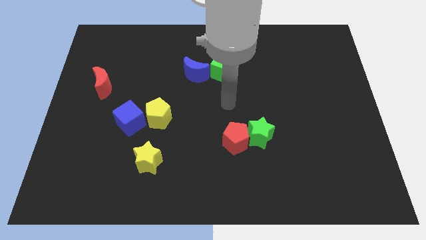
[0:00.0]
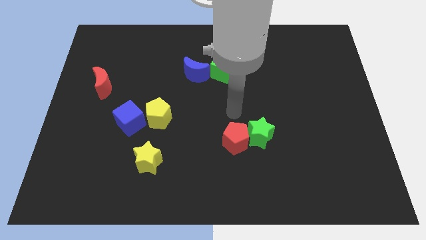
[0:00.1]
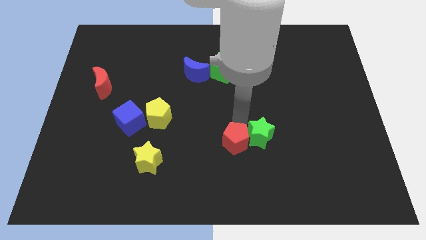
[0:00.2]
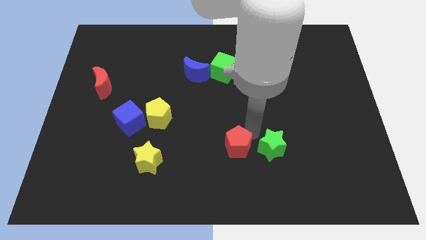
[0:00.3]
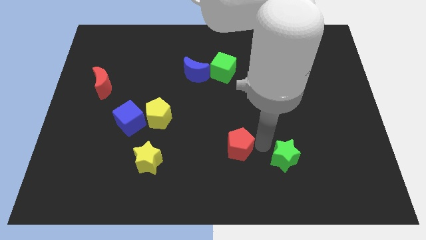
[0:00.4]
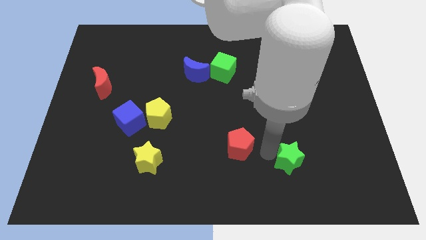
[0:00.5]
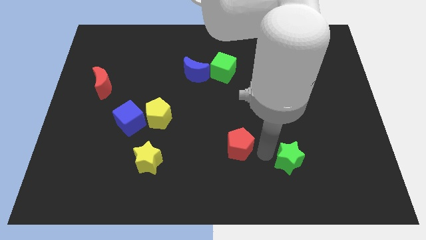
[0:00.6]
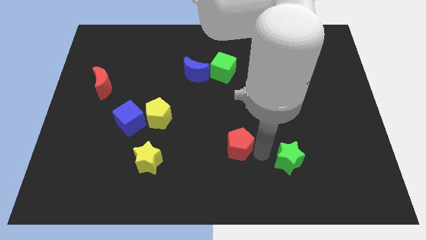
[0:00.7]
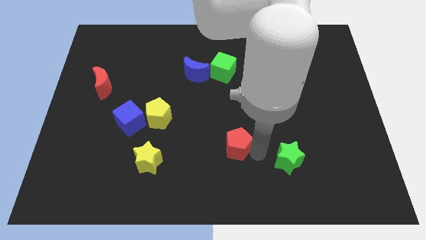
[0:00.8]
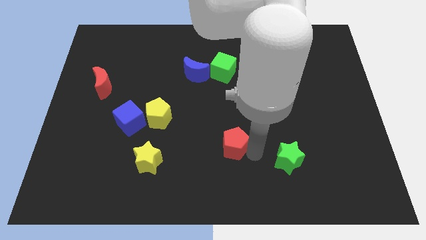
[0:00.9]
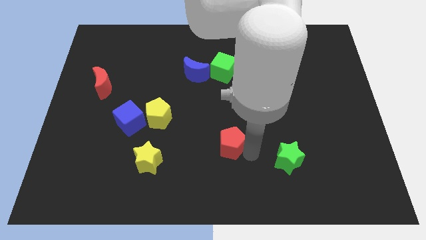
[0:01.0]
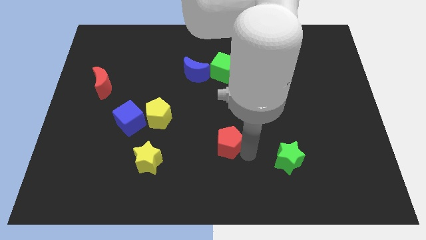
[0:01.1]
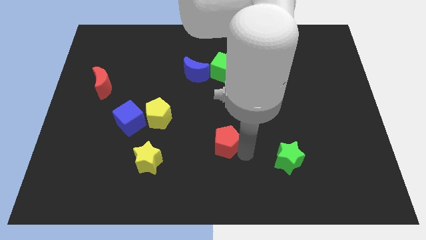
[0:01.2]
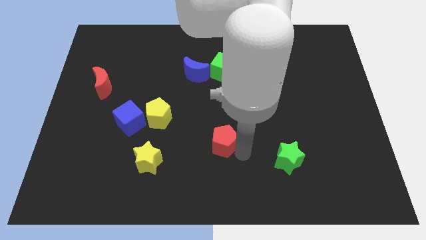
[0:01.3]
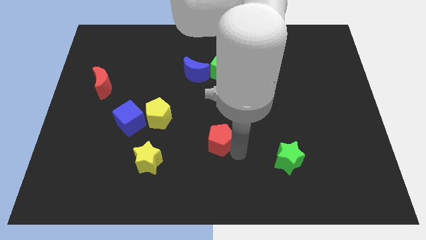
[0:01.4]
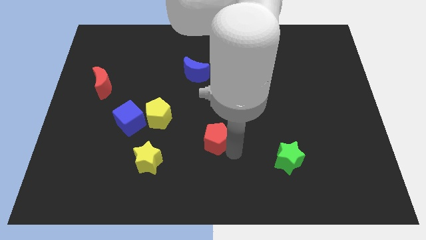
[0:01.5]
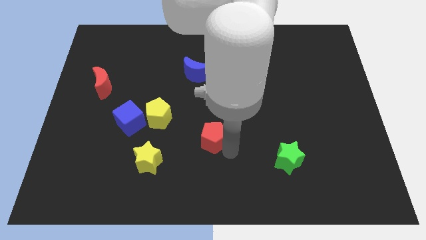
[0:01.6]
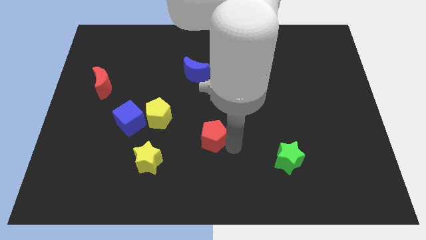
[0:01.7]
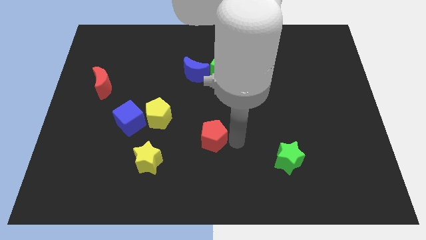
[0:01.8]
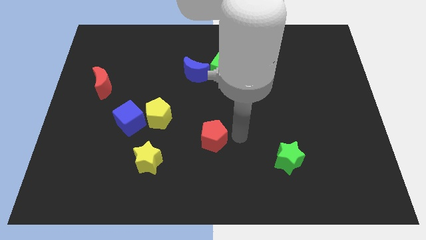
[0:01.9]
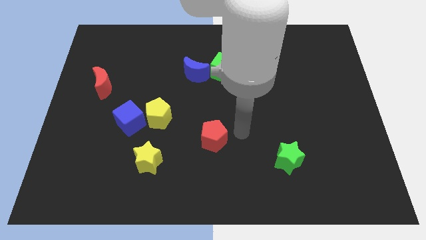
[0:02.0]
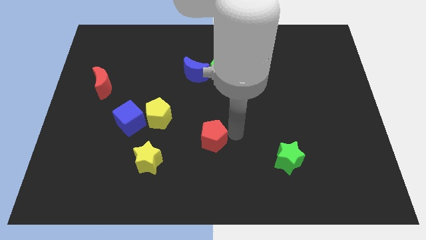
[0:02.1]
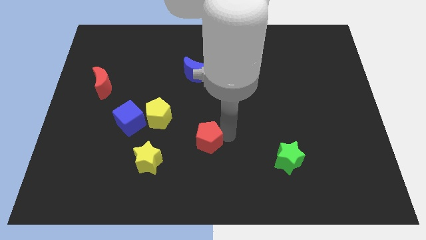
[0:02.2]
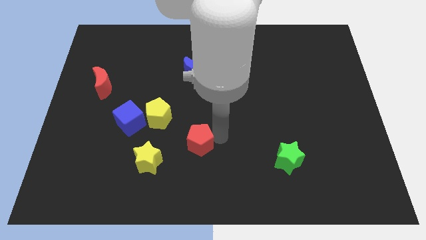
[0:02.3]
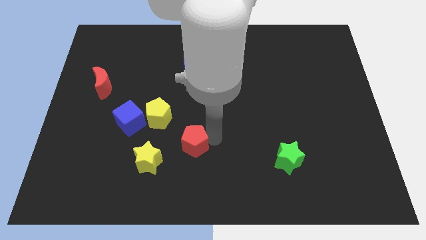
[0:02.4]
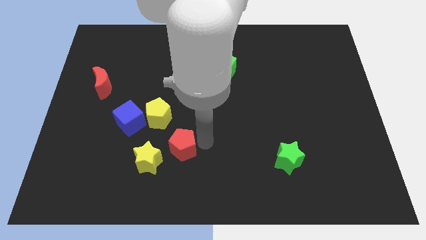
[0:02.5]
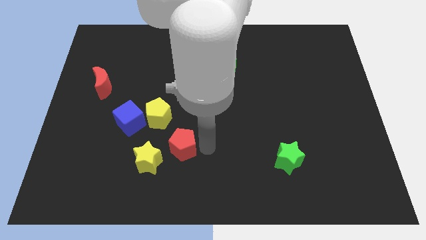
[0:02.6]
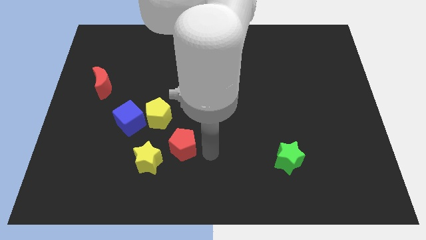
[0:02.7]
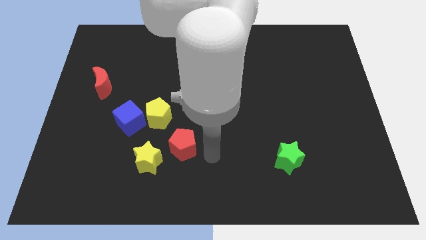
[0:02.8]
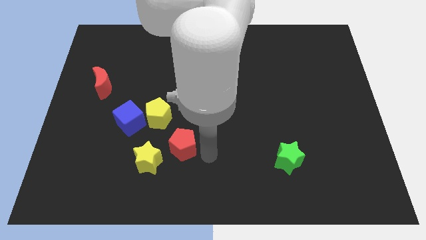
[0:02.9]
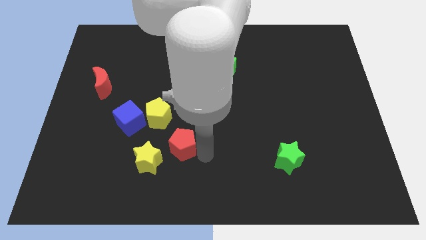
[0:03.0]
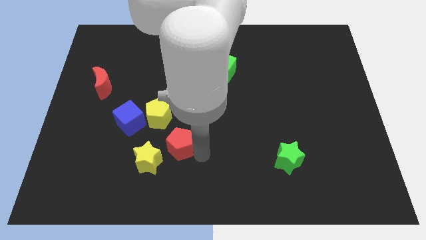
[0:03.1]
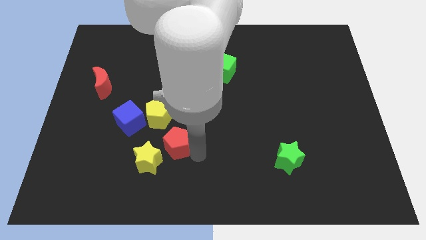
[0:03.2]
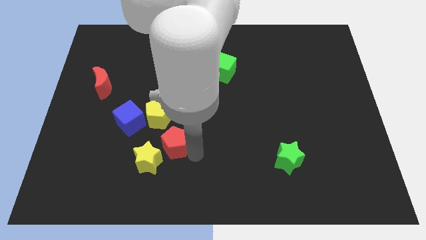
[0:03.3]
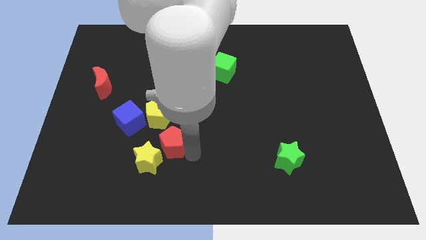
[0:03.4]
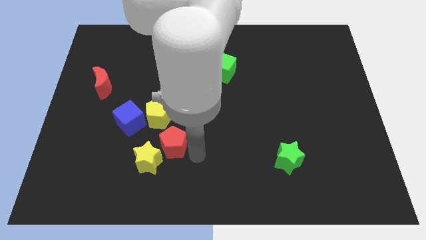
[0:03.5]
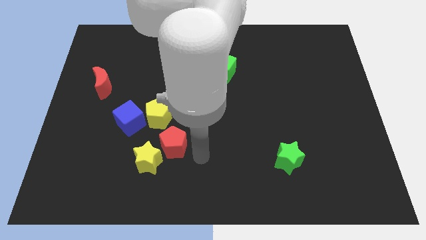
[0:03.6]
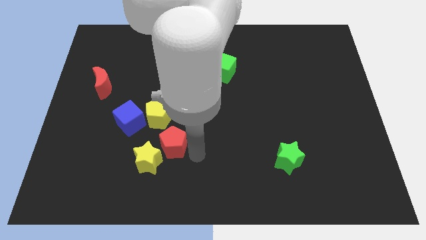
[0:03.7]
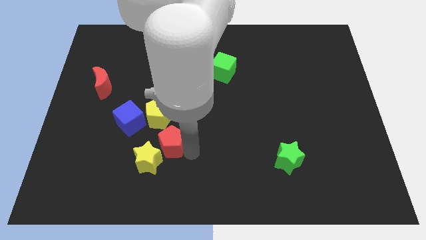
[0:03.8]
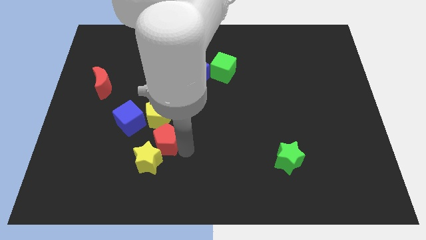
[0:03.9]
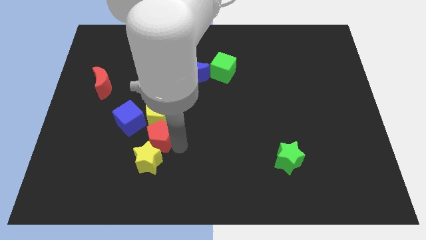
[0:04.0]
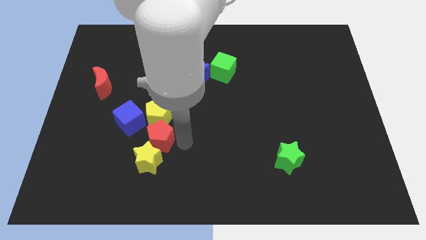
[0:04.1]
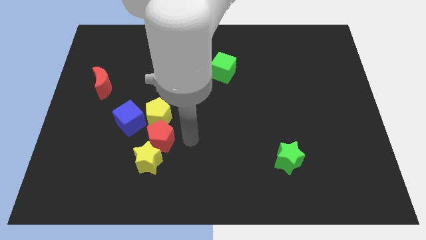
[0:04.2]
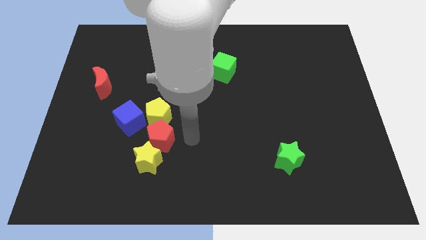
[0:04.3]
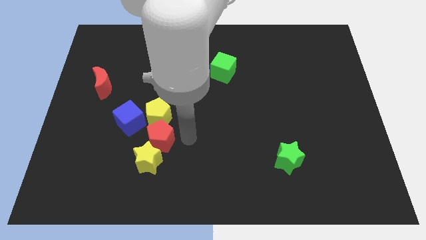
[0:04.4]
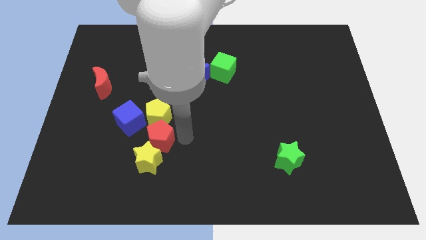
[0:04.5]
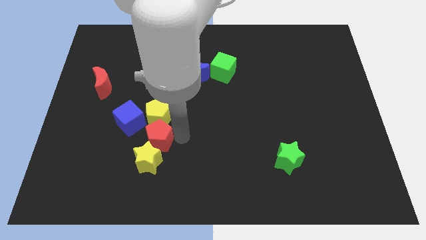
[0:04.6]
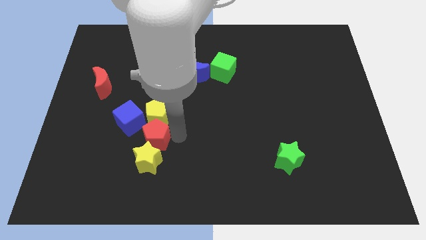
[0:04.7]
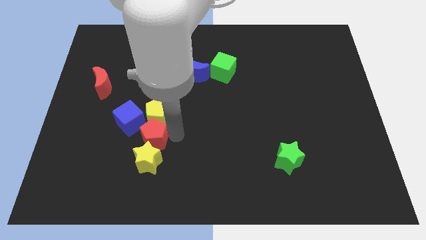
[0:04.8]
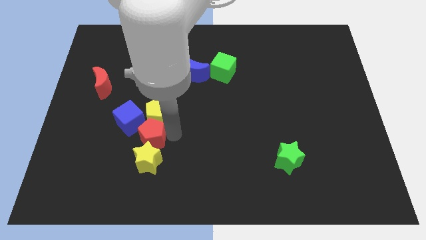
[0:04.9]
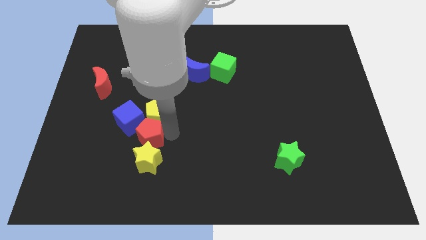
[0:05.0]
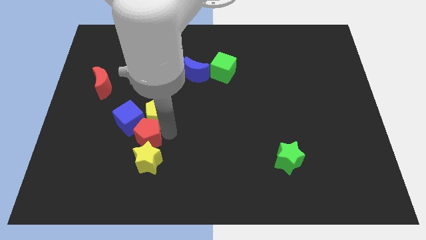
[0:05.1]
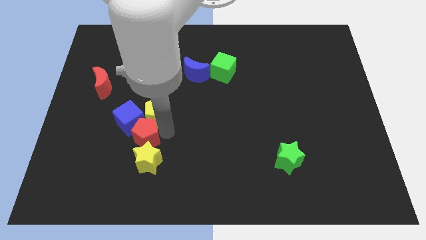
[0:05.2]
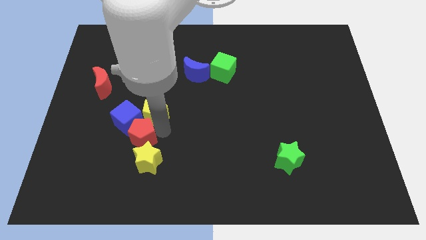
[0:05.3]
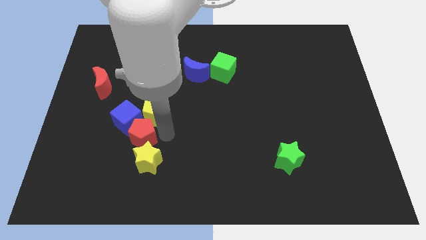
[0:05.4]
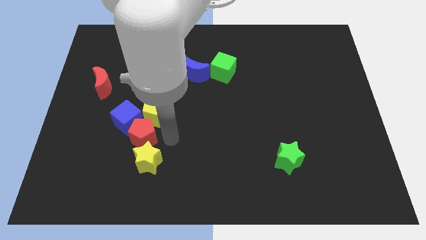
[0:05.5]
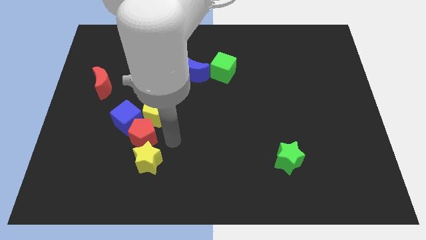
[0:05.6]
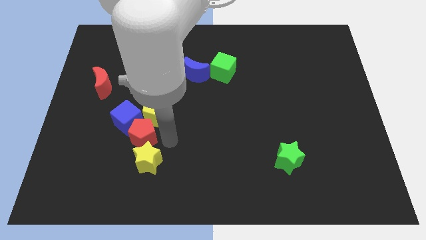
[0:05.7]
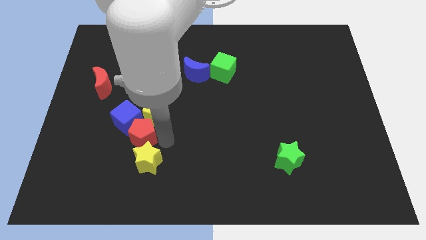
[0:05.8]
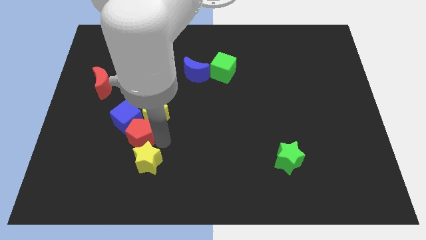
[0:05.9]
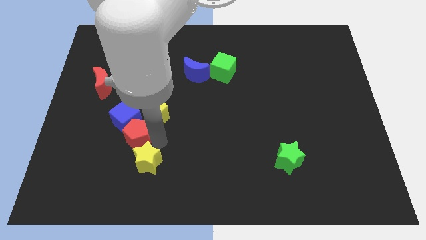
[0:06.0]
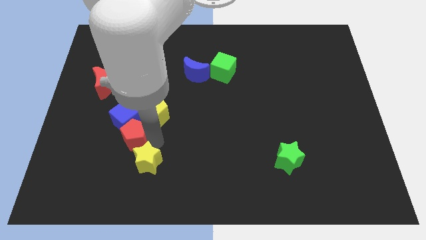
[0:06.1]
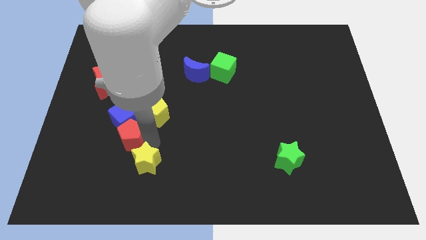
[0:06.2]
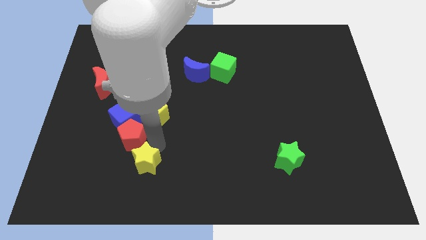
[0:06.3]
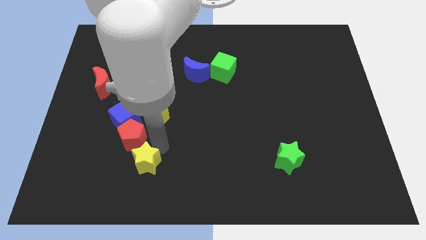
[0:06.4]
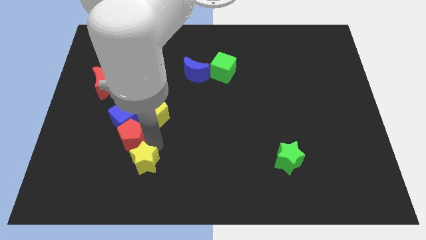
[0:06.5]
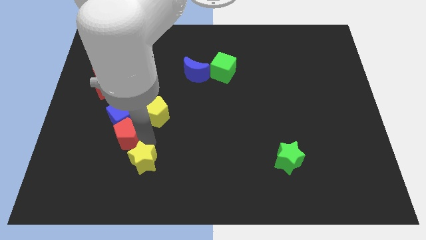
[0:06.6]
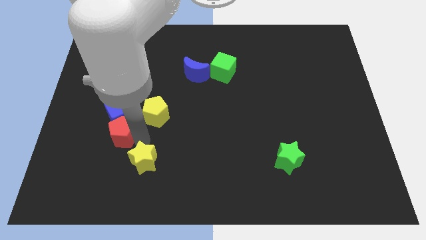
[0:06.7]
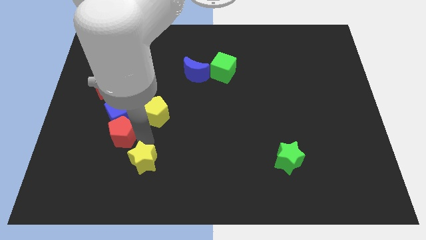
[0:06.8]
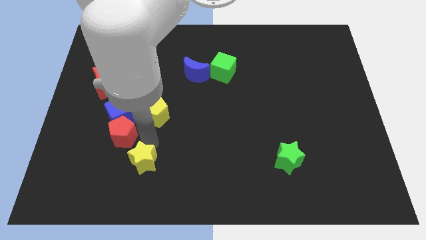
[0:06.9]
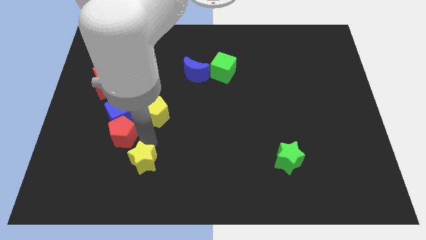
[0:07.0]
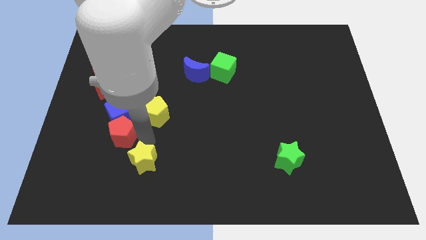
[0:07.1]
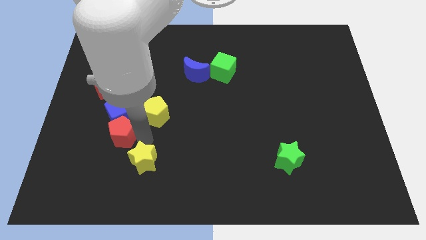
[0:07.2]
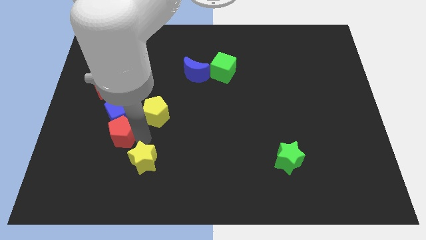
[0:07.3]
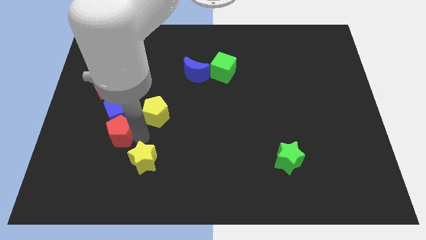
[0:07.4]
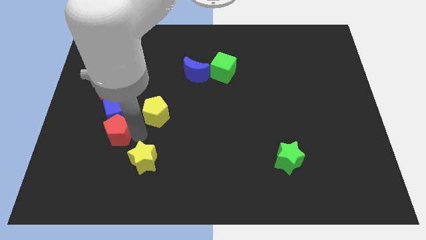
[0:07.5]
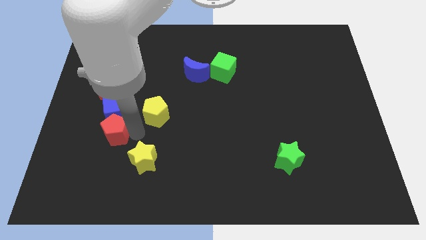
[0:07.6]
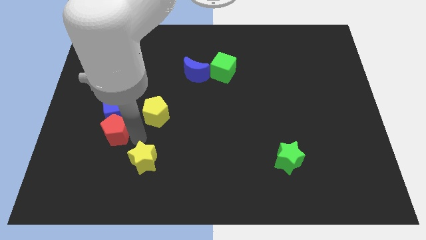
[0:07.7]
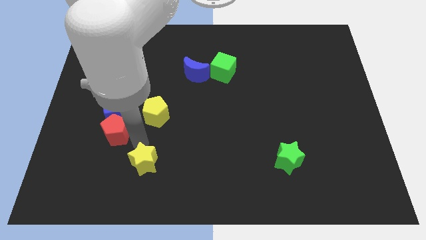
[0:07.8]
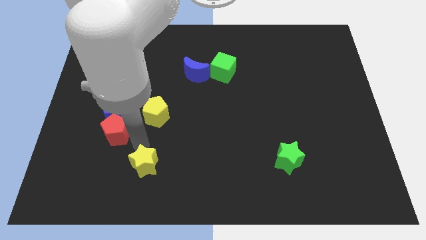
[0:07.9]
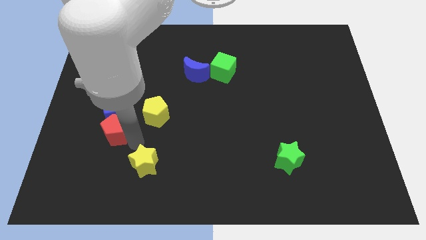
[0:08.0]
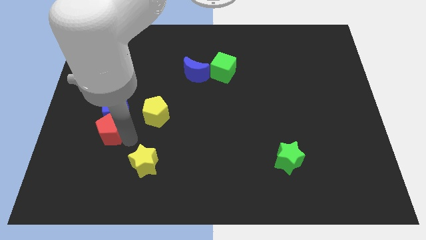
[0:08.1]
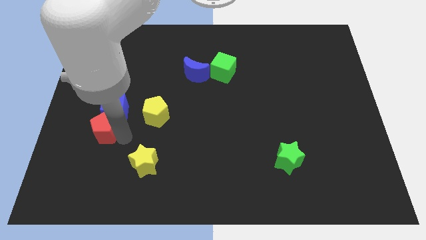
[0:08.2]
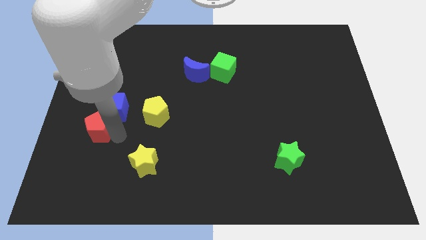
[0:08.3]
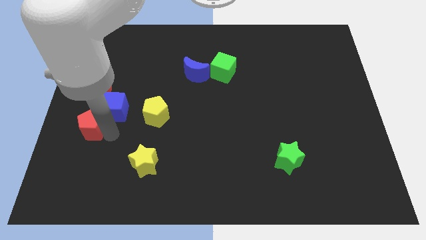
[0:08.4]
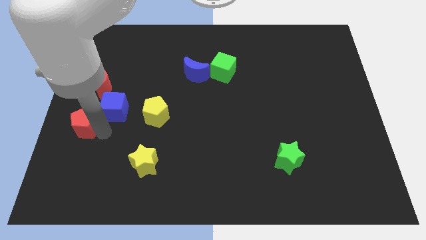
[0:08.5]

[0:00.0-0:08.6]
slide the red pentagon to the left side of the board
